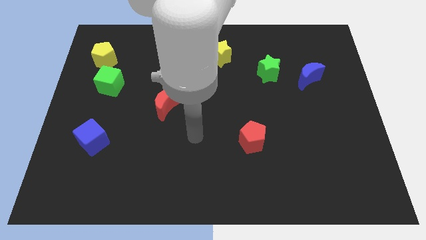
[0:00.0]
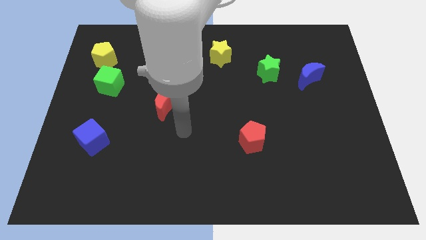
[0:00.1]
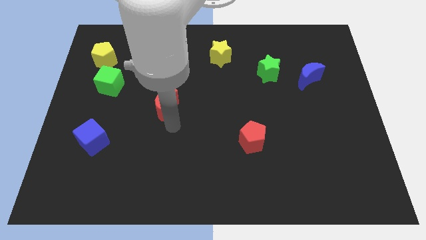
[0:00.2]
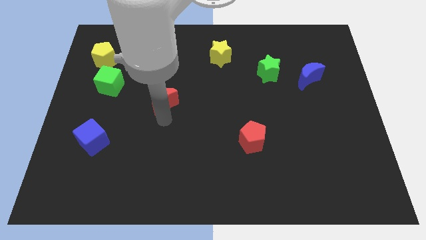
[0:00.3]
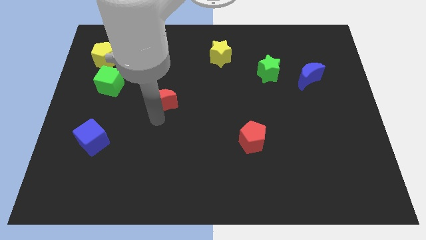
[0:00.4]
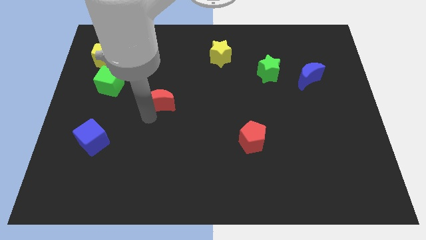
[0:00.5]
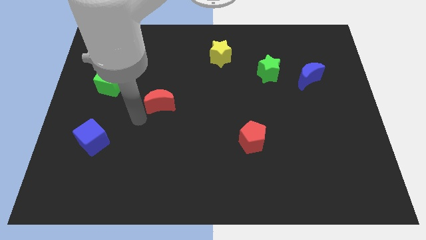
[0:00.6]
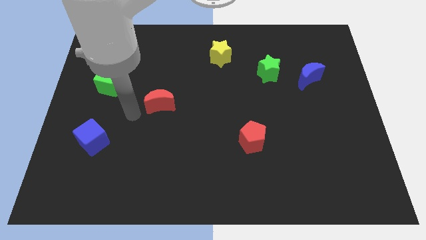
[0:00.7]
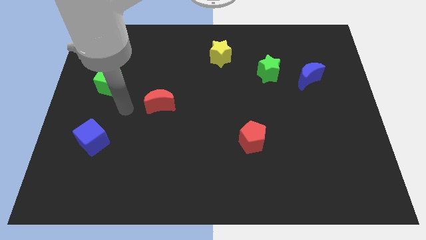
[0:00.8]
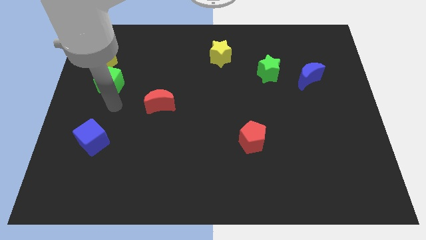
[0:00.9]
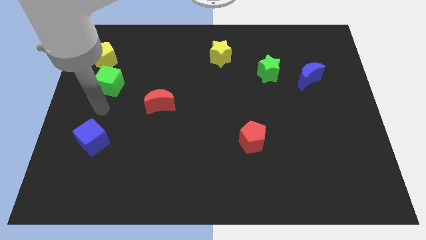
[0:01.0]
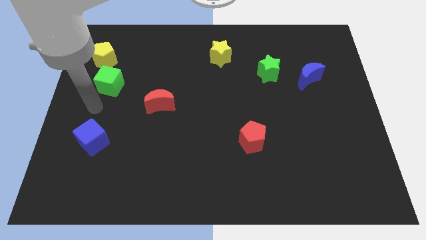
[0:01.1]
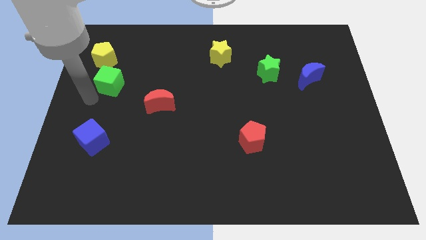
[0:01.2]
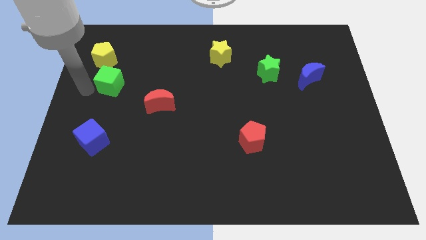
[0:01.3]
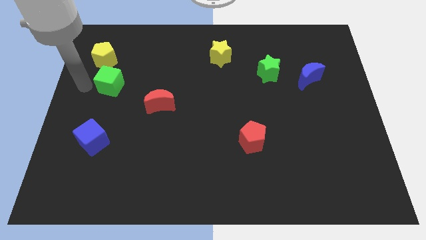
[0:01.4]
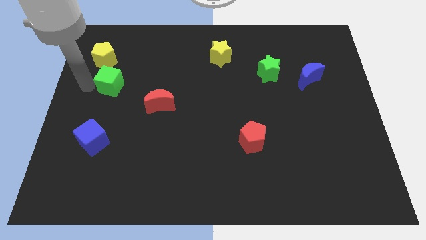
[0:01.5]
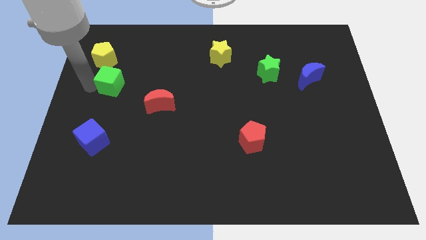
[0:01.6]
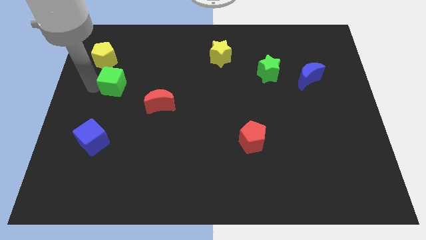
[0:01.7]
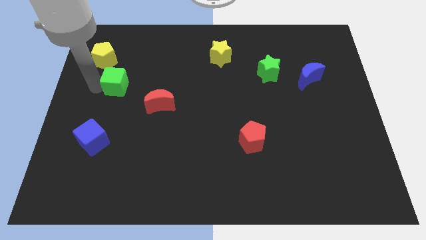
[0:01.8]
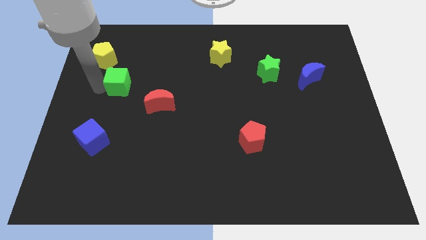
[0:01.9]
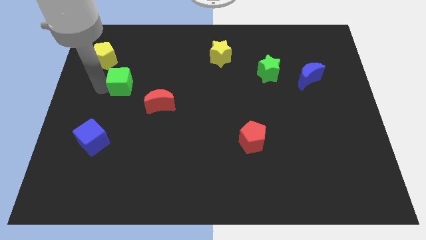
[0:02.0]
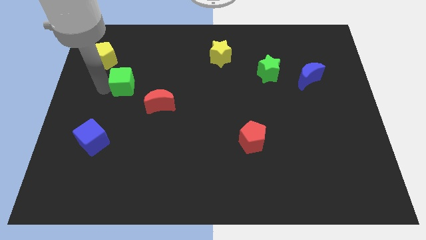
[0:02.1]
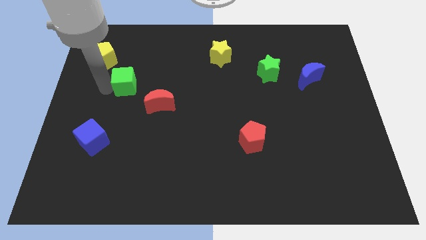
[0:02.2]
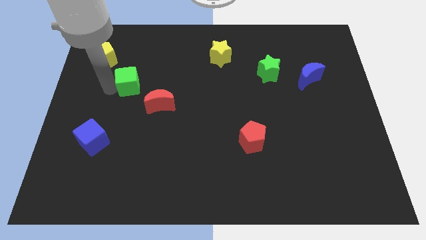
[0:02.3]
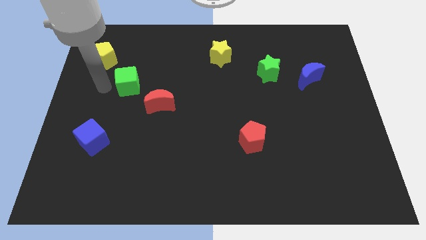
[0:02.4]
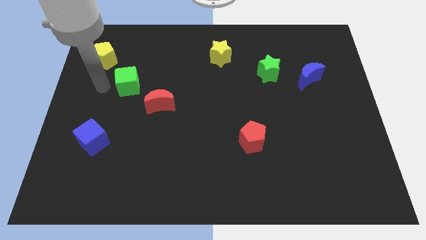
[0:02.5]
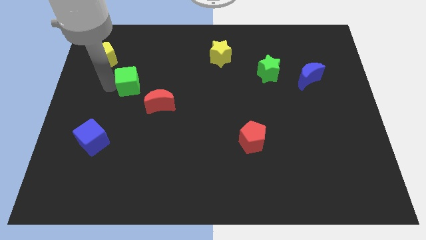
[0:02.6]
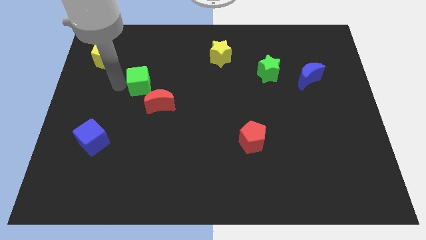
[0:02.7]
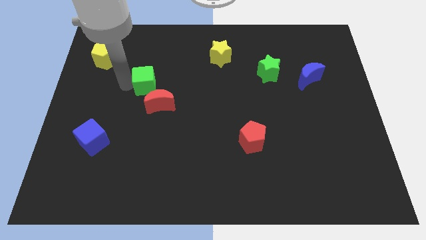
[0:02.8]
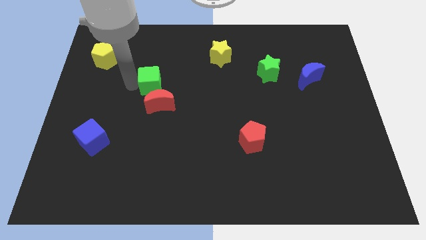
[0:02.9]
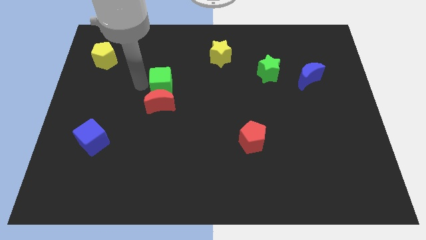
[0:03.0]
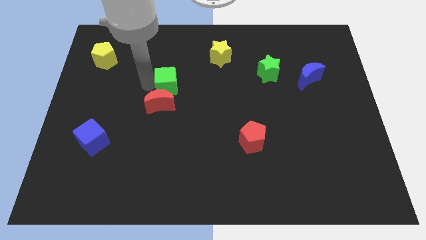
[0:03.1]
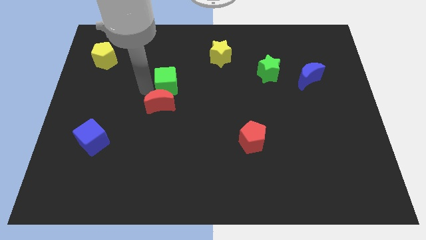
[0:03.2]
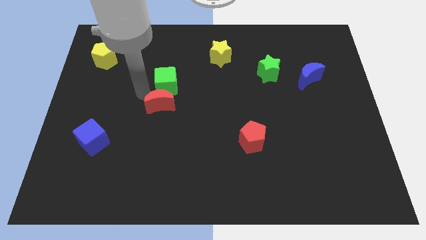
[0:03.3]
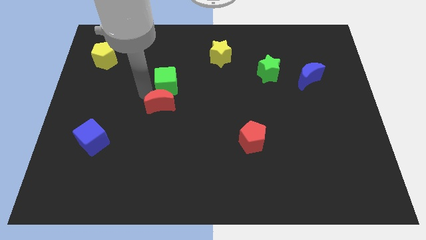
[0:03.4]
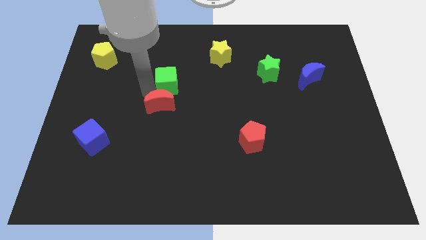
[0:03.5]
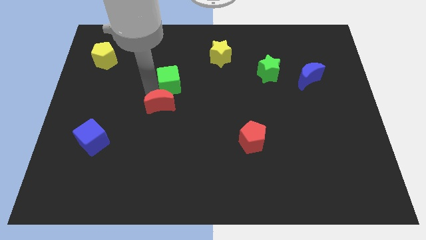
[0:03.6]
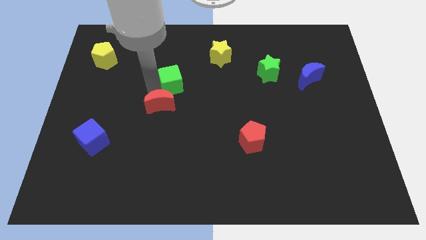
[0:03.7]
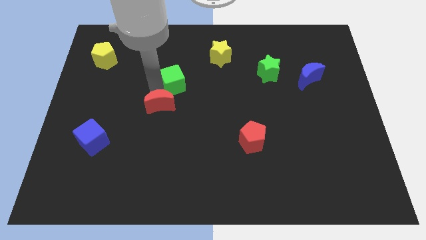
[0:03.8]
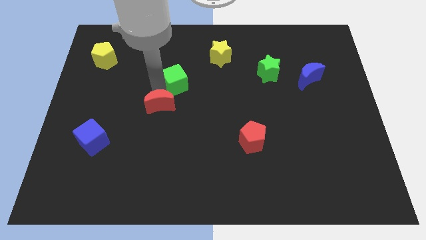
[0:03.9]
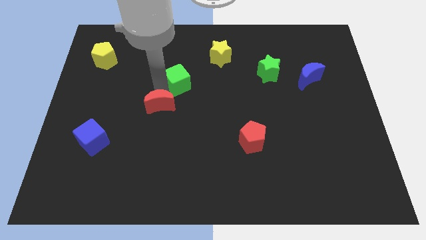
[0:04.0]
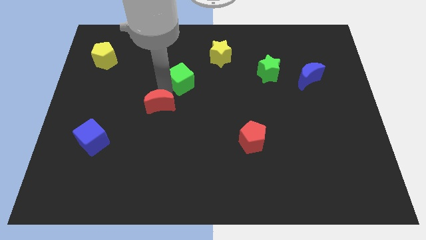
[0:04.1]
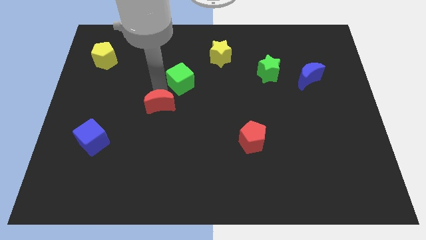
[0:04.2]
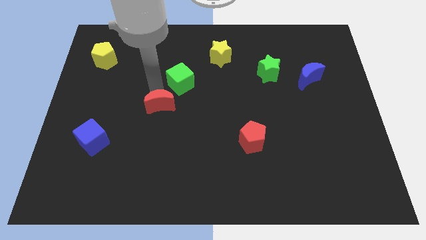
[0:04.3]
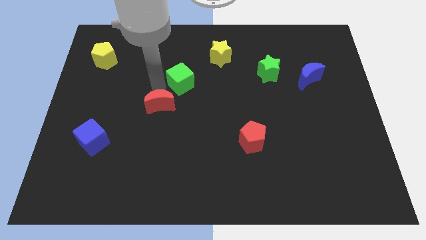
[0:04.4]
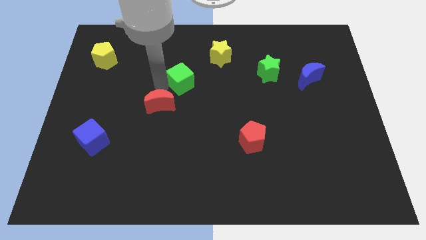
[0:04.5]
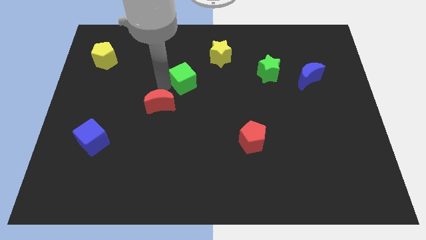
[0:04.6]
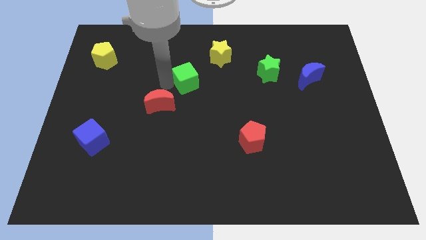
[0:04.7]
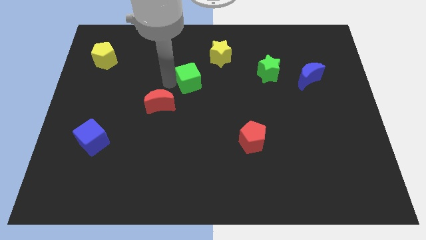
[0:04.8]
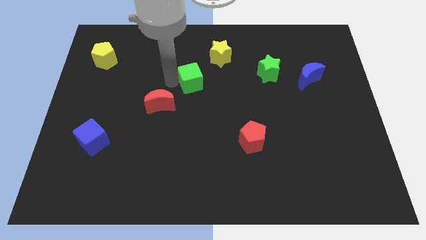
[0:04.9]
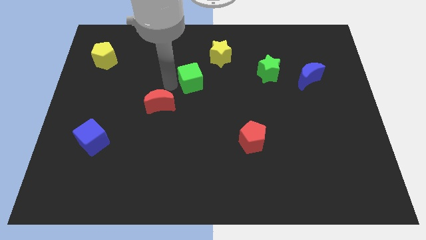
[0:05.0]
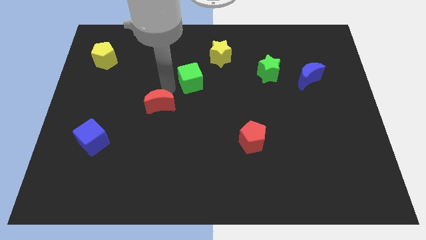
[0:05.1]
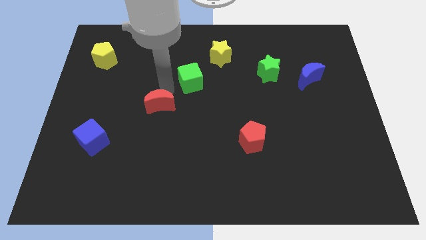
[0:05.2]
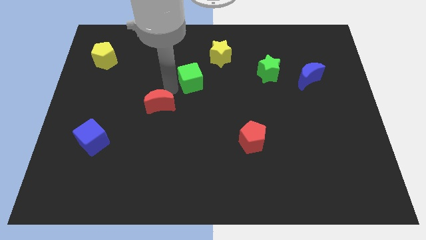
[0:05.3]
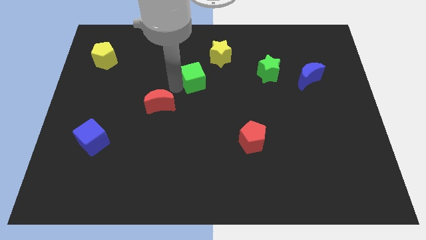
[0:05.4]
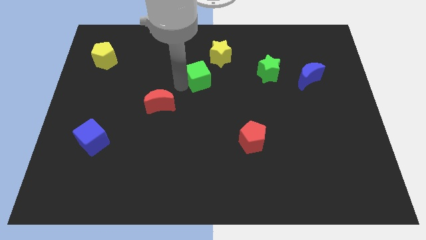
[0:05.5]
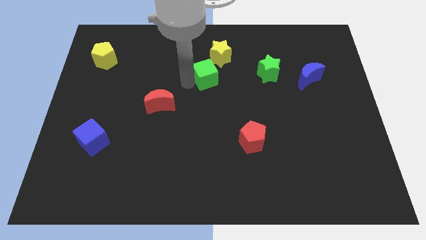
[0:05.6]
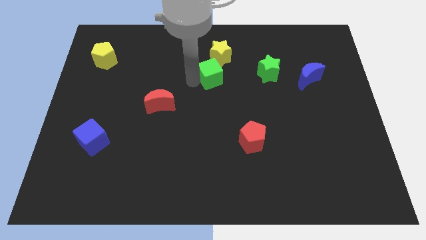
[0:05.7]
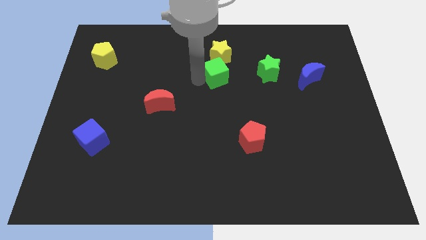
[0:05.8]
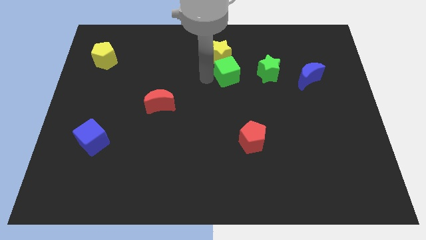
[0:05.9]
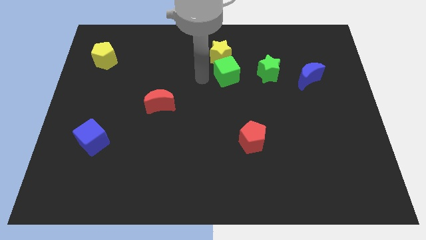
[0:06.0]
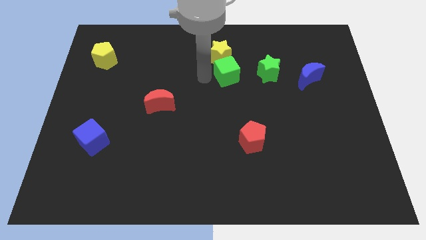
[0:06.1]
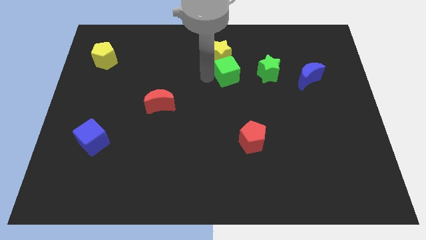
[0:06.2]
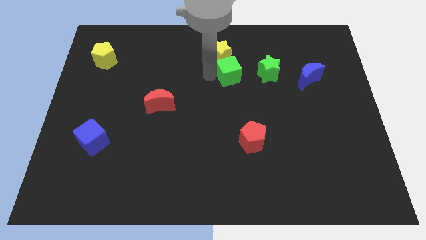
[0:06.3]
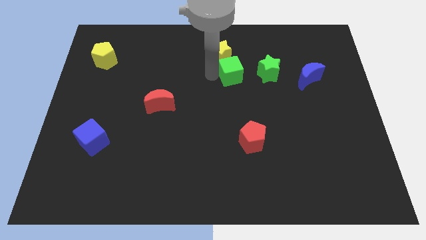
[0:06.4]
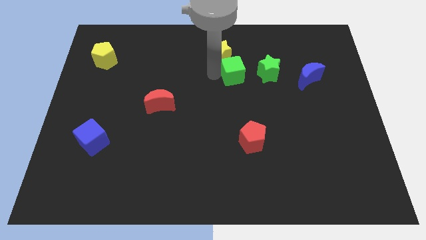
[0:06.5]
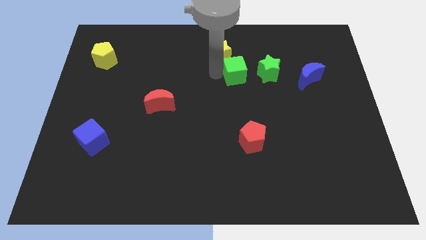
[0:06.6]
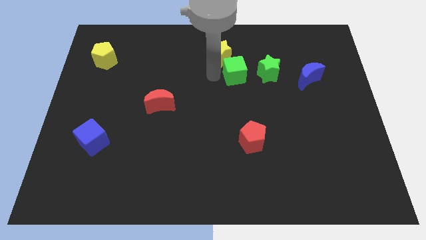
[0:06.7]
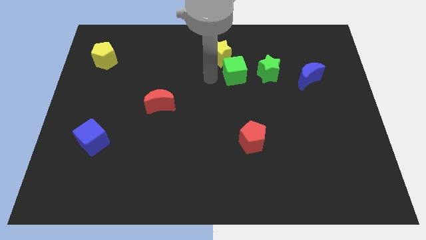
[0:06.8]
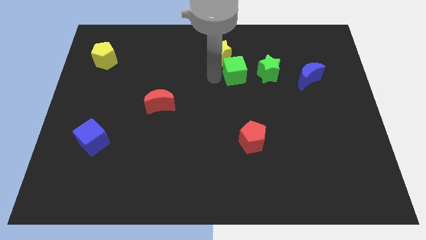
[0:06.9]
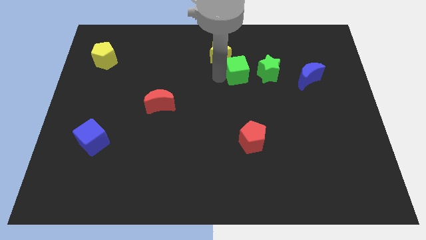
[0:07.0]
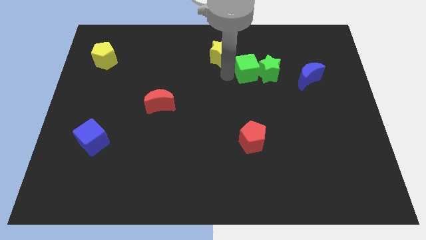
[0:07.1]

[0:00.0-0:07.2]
move the green cube towards the green star

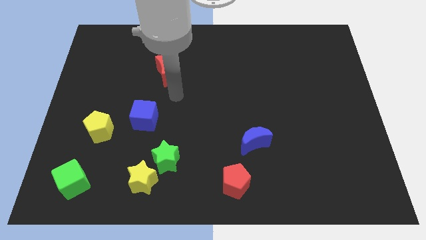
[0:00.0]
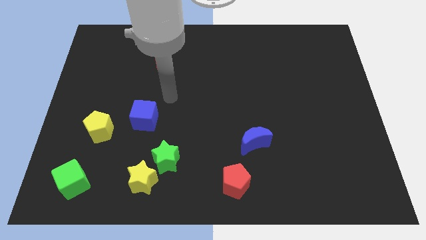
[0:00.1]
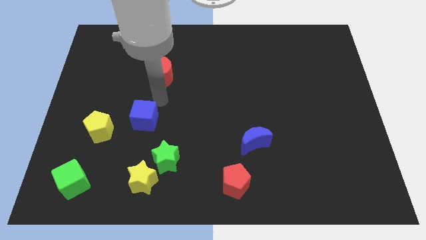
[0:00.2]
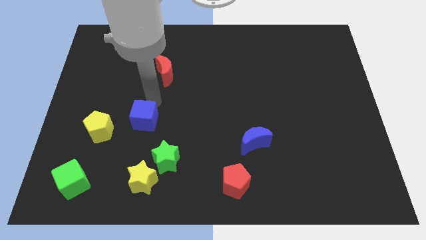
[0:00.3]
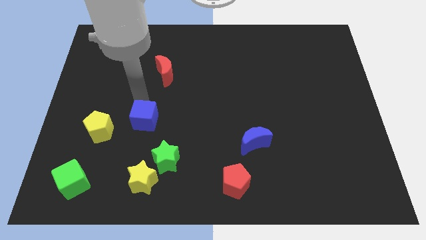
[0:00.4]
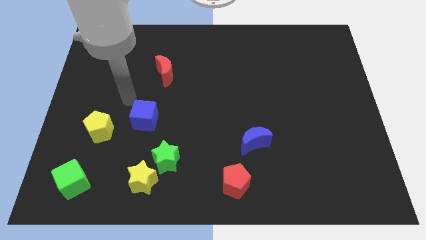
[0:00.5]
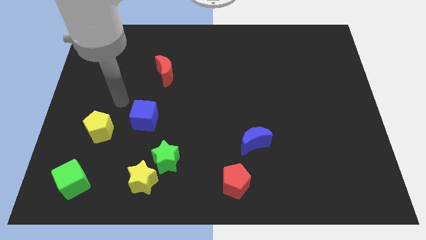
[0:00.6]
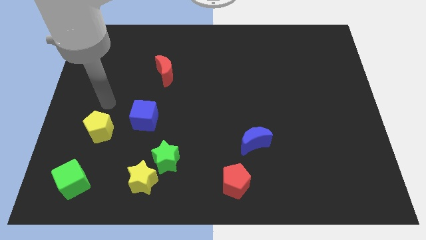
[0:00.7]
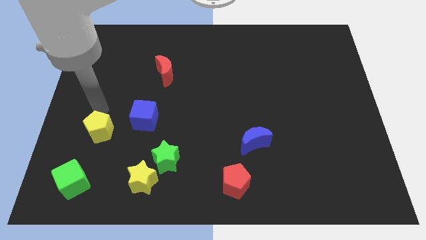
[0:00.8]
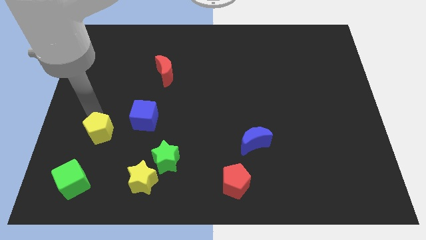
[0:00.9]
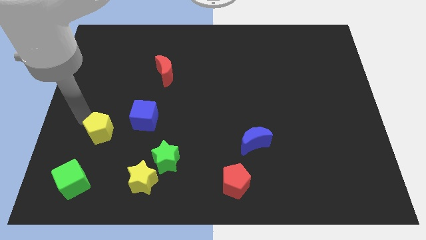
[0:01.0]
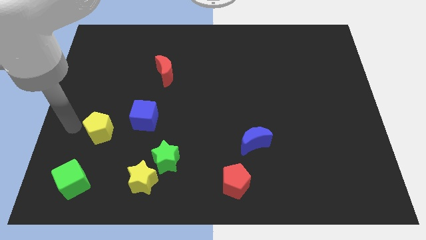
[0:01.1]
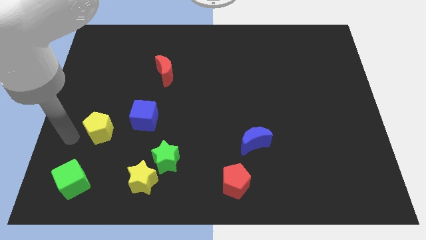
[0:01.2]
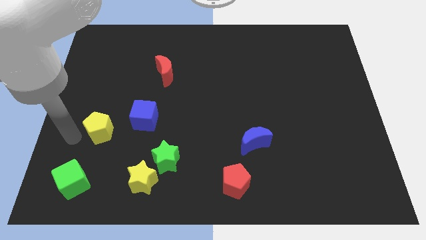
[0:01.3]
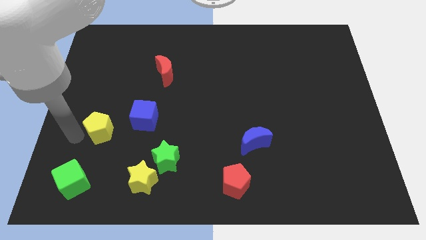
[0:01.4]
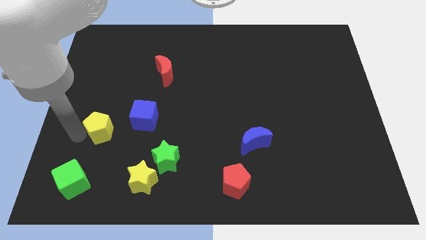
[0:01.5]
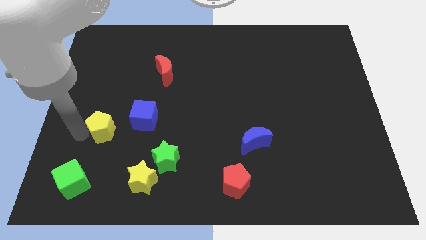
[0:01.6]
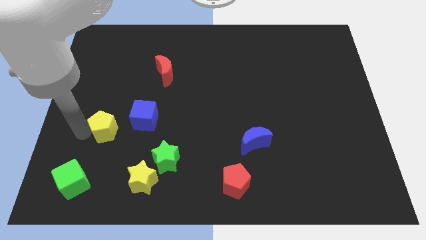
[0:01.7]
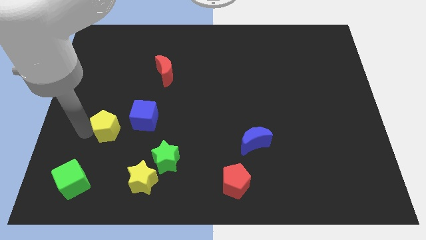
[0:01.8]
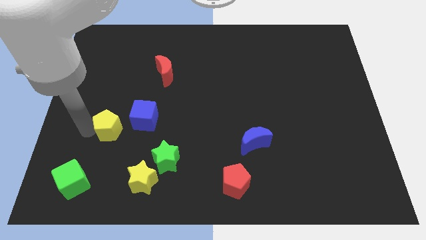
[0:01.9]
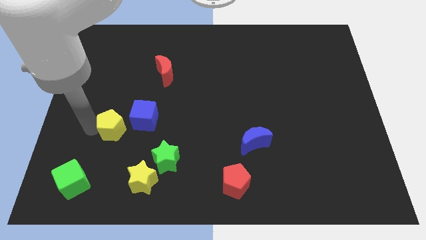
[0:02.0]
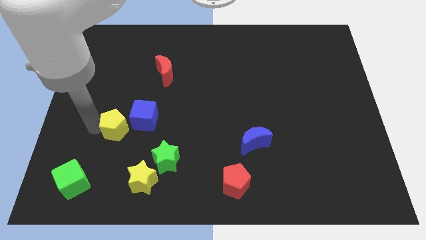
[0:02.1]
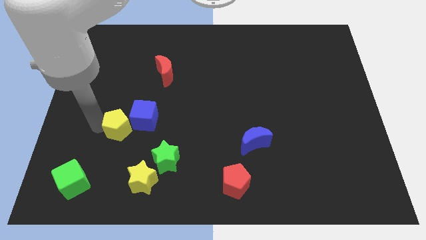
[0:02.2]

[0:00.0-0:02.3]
put the yellow pentagon to the blue cube
